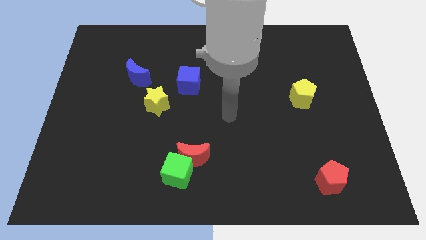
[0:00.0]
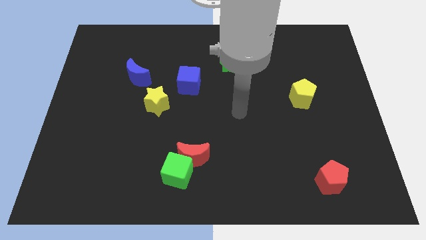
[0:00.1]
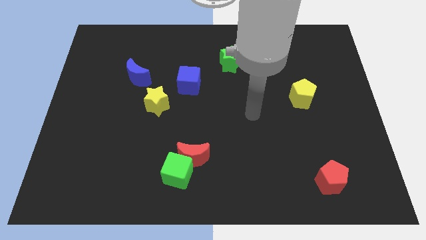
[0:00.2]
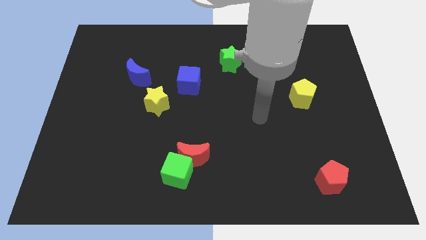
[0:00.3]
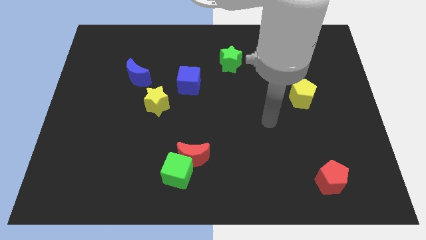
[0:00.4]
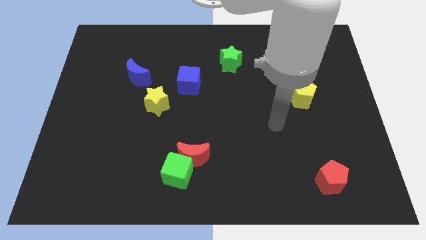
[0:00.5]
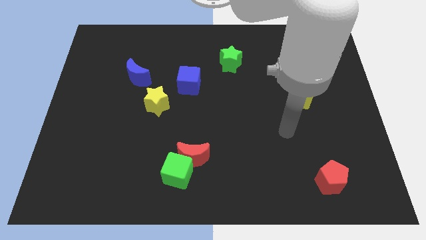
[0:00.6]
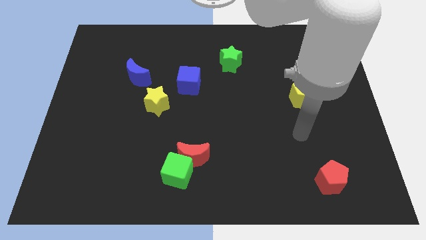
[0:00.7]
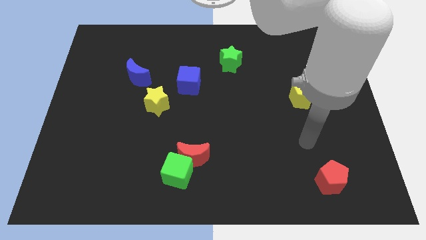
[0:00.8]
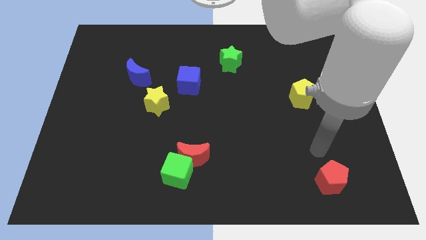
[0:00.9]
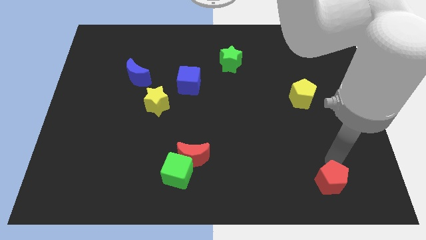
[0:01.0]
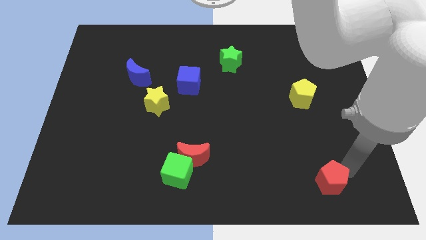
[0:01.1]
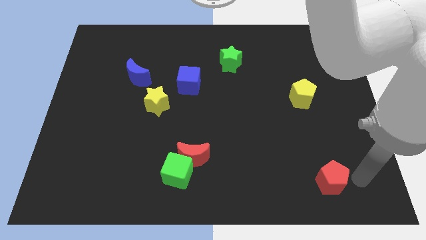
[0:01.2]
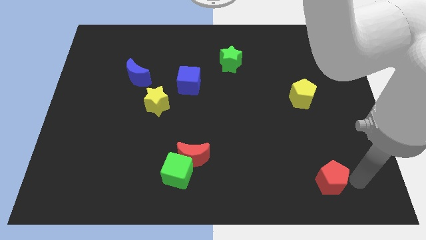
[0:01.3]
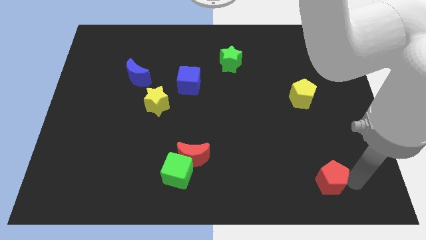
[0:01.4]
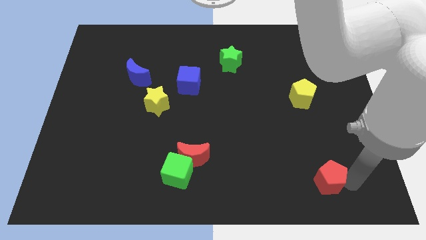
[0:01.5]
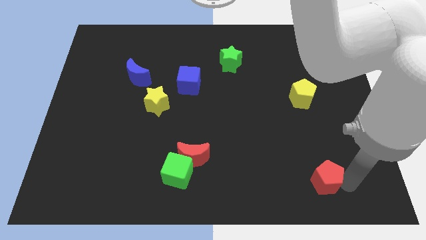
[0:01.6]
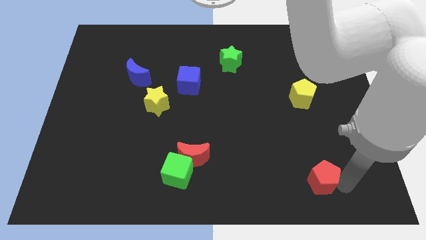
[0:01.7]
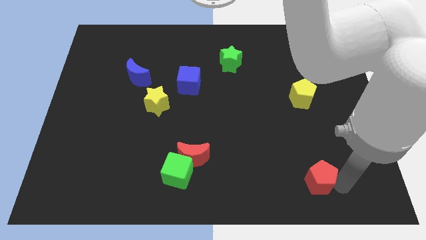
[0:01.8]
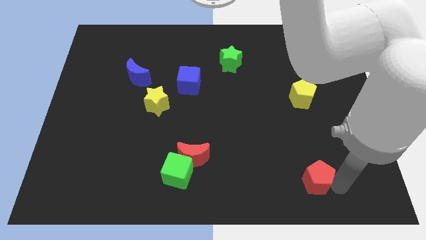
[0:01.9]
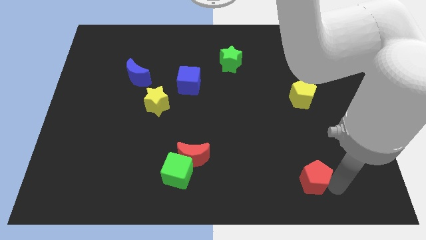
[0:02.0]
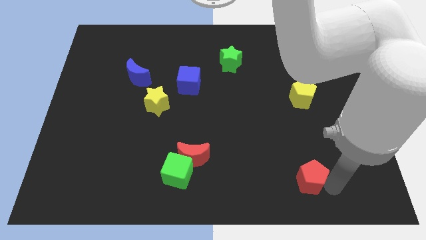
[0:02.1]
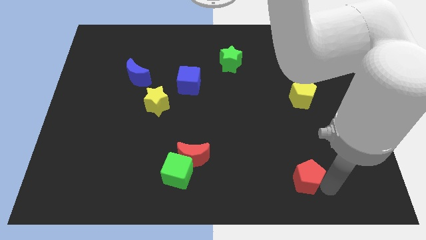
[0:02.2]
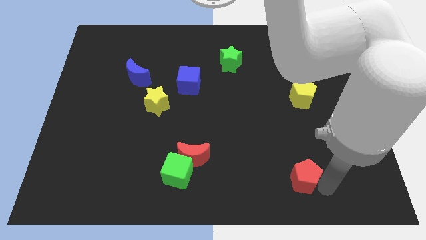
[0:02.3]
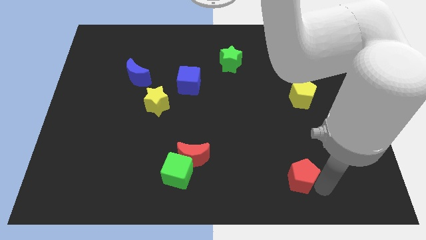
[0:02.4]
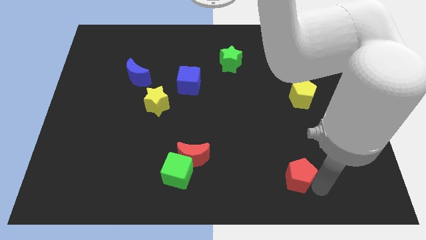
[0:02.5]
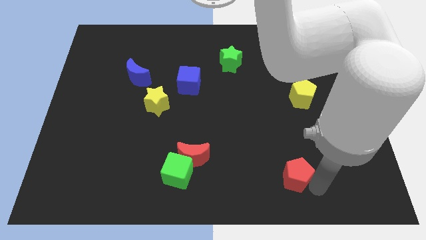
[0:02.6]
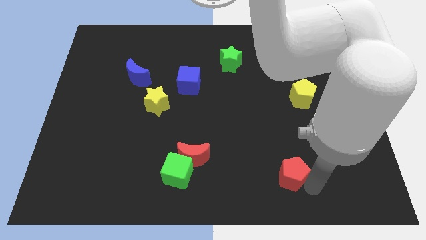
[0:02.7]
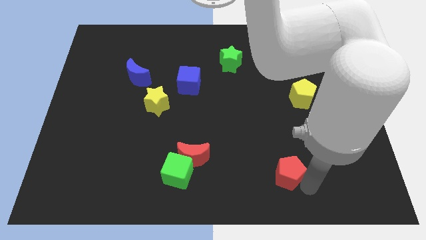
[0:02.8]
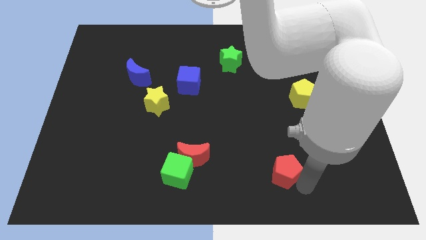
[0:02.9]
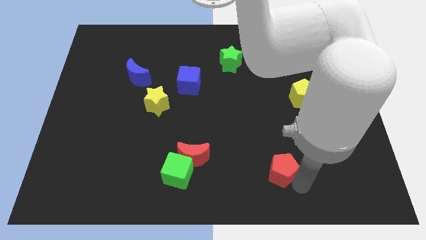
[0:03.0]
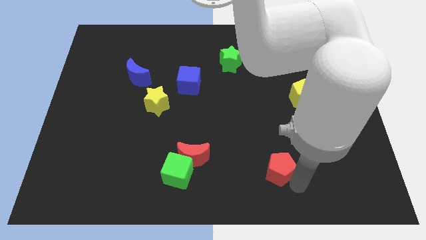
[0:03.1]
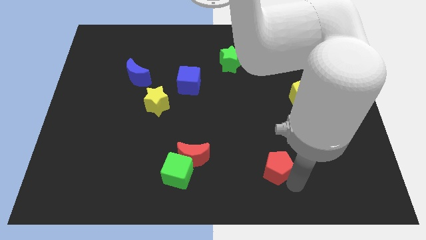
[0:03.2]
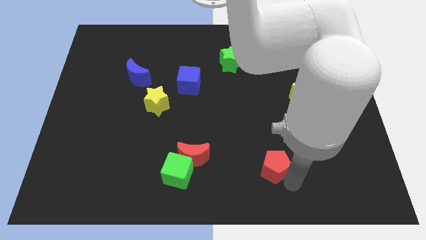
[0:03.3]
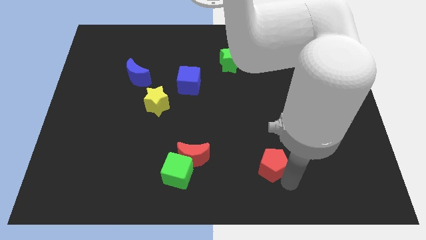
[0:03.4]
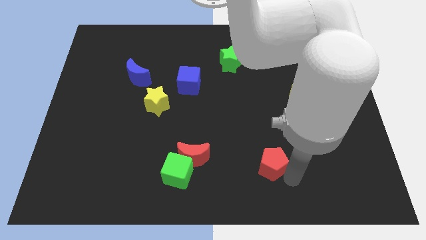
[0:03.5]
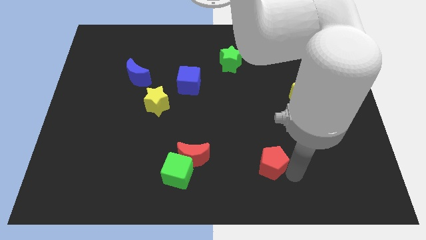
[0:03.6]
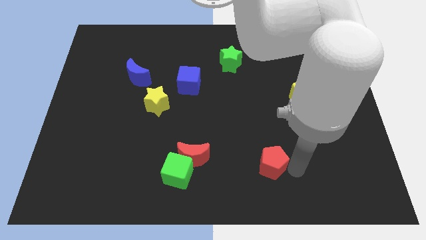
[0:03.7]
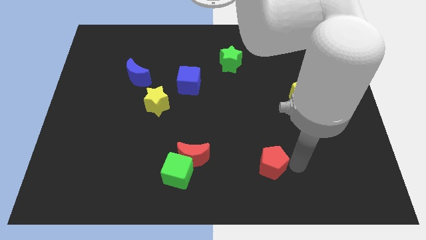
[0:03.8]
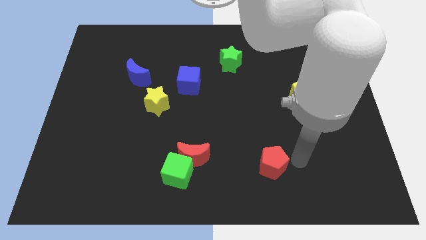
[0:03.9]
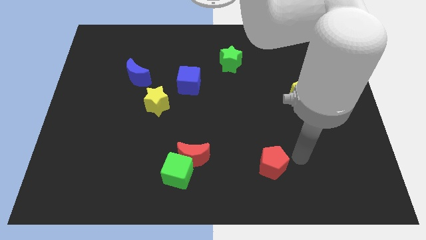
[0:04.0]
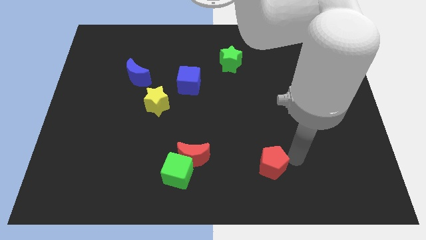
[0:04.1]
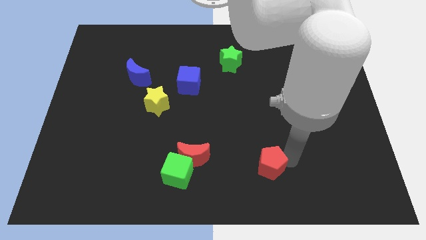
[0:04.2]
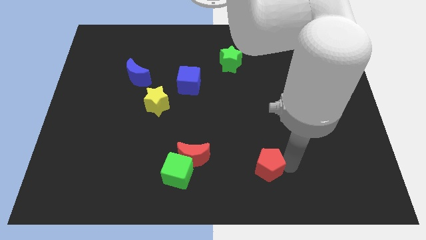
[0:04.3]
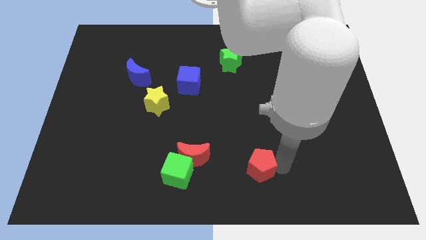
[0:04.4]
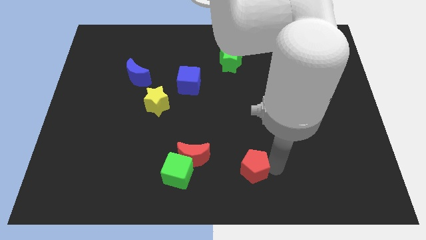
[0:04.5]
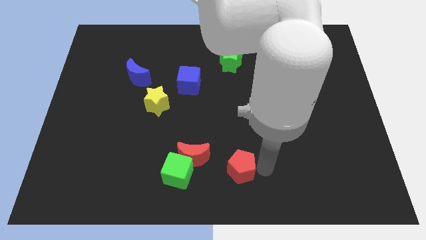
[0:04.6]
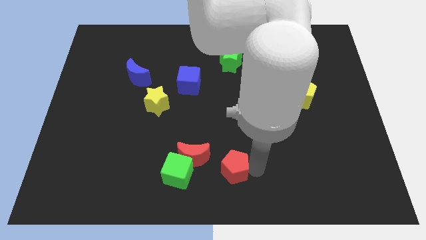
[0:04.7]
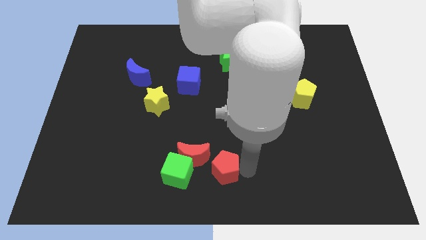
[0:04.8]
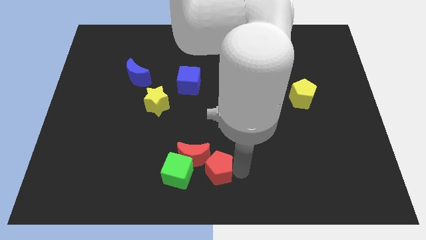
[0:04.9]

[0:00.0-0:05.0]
push the red pentagon towards the red moon
